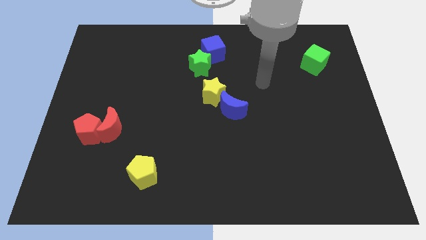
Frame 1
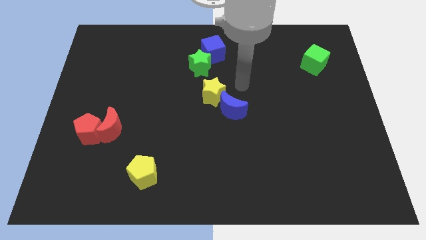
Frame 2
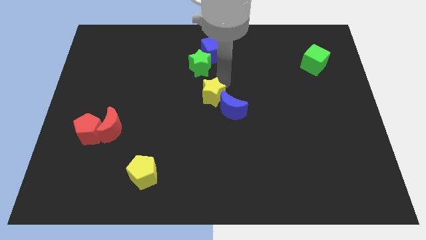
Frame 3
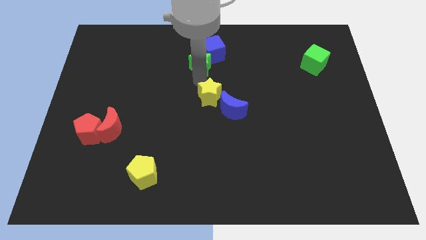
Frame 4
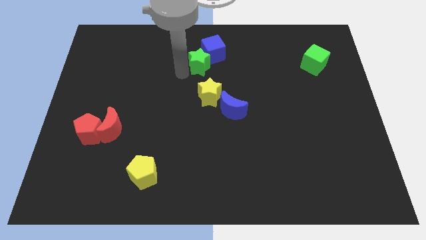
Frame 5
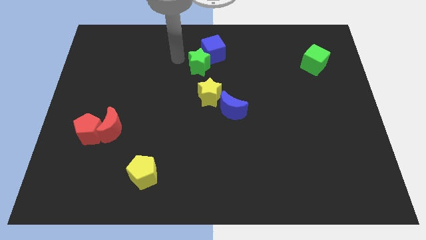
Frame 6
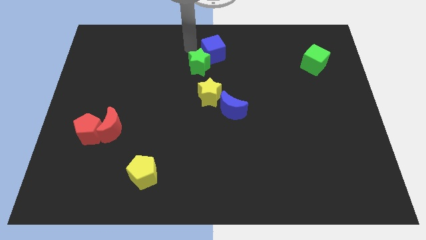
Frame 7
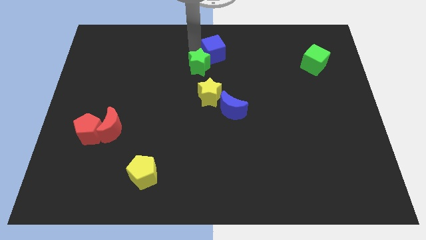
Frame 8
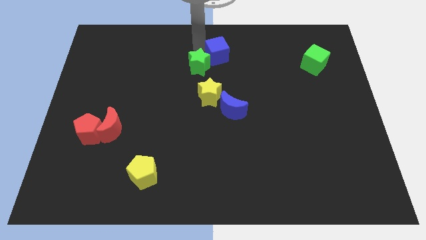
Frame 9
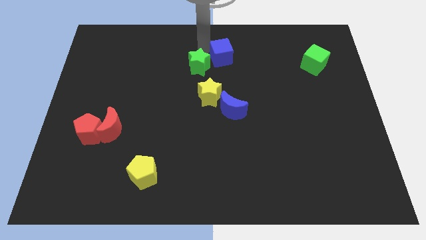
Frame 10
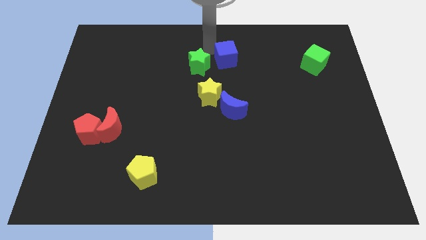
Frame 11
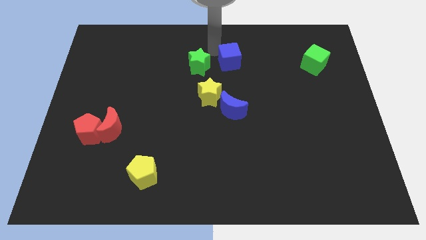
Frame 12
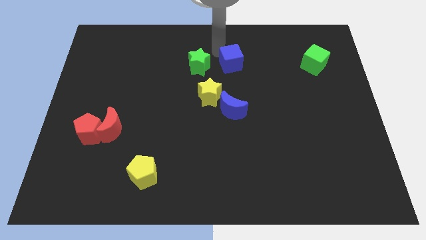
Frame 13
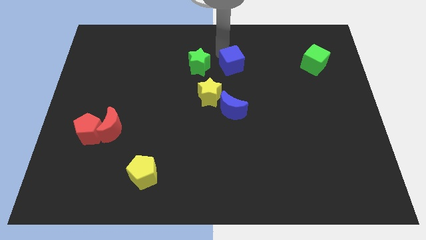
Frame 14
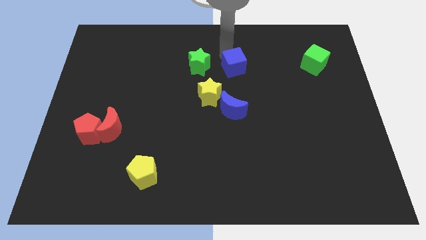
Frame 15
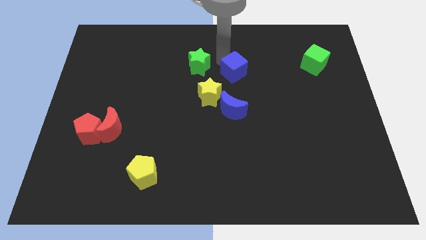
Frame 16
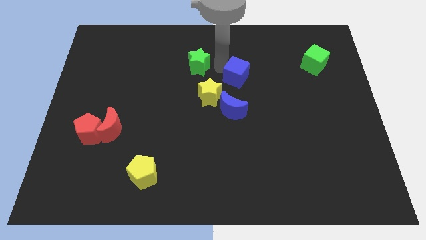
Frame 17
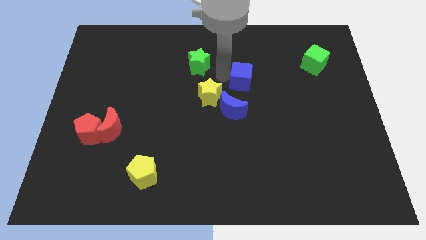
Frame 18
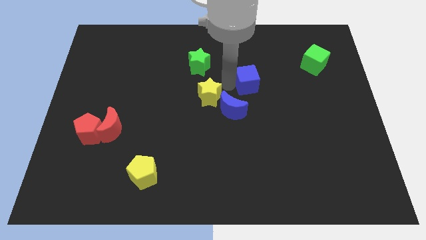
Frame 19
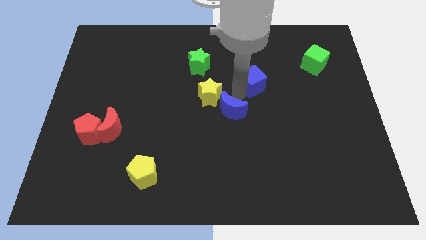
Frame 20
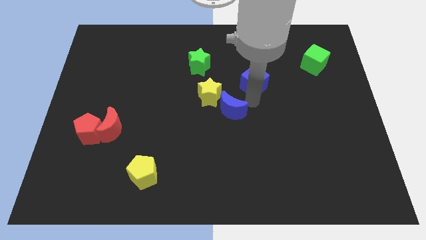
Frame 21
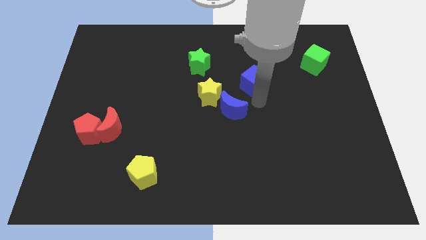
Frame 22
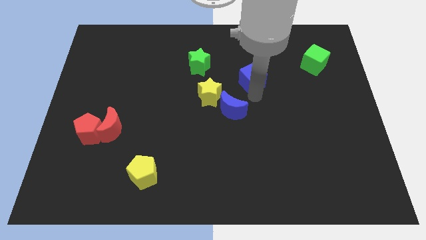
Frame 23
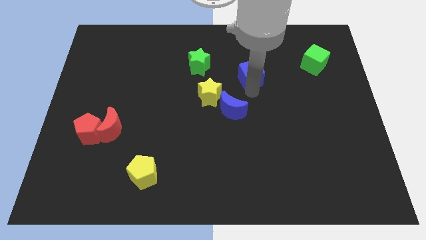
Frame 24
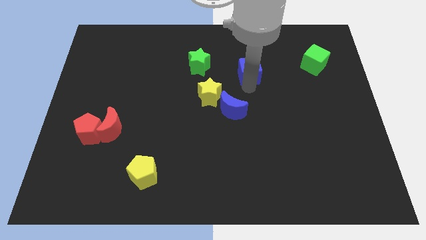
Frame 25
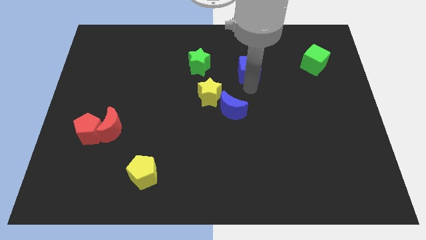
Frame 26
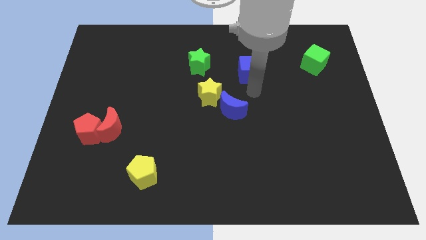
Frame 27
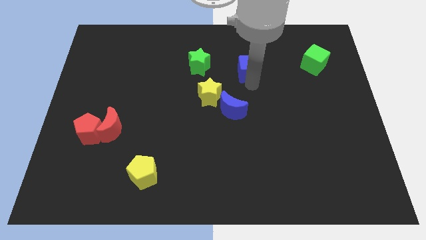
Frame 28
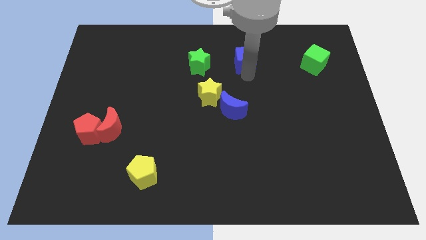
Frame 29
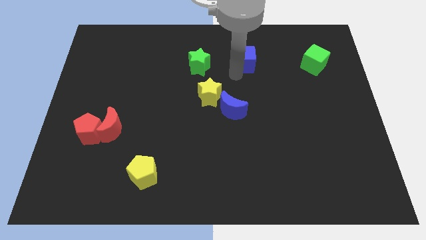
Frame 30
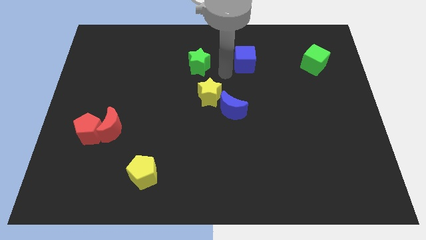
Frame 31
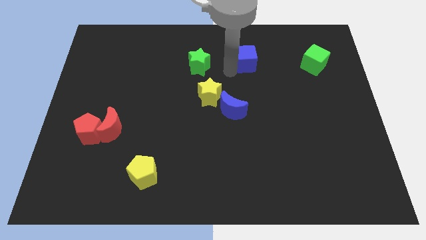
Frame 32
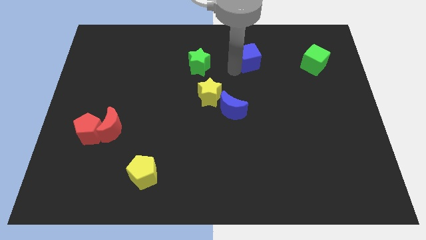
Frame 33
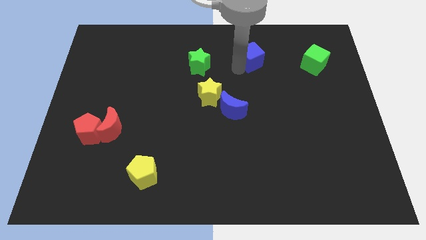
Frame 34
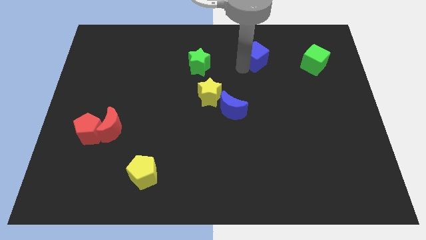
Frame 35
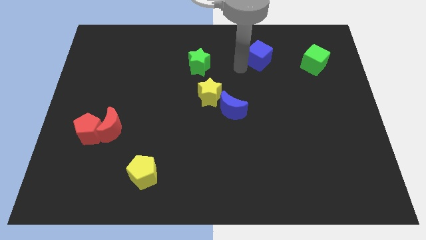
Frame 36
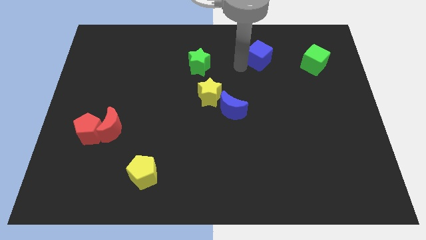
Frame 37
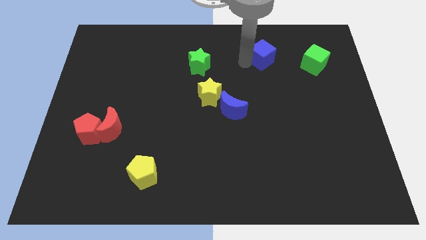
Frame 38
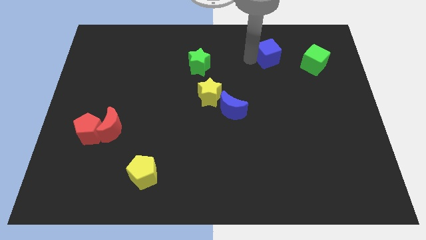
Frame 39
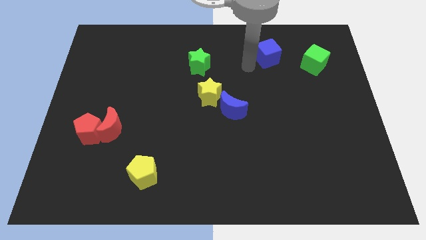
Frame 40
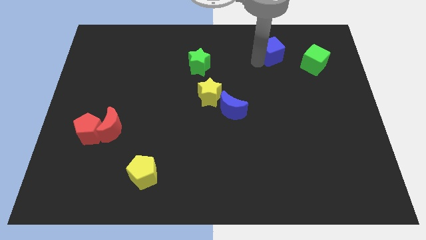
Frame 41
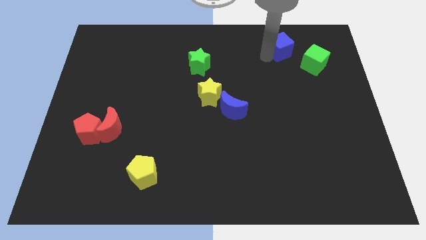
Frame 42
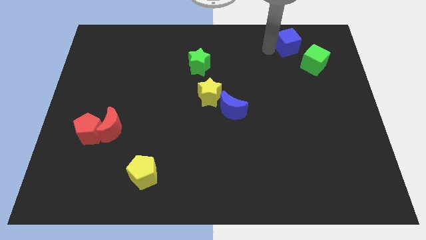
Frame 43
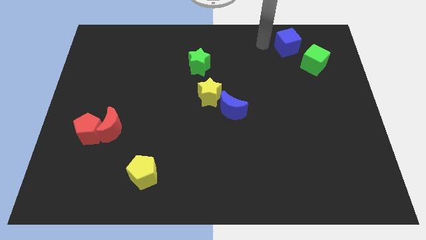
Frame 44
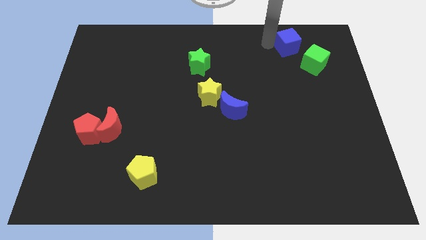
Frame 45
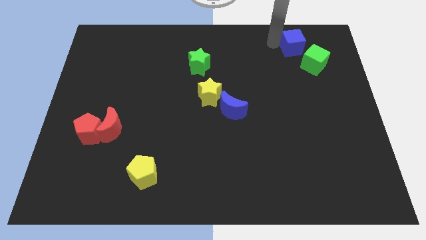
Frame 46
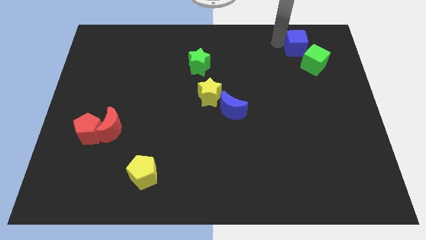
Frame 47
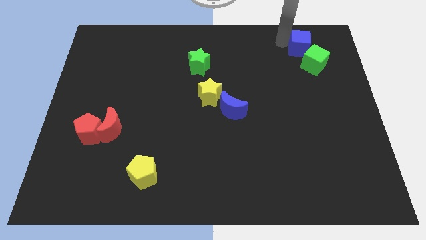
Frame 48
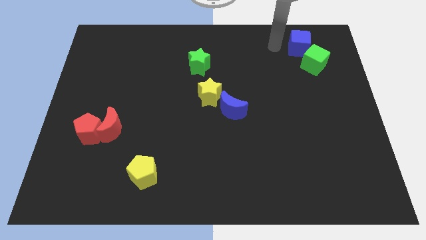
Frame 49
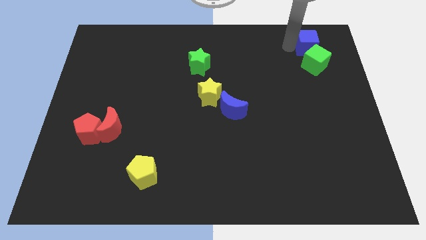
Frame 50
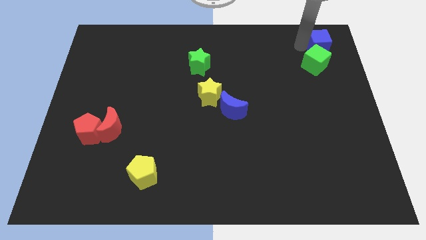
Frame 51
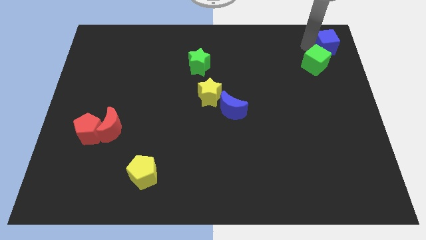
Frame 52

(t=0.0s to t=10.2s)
put the blue cube to the upper right corner

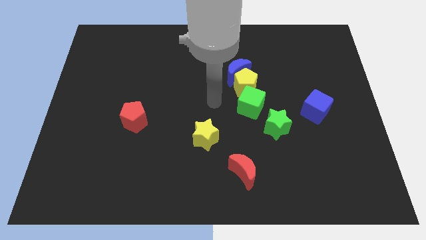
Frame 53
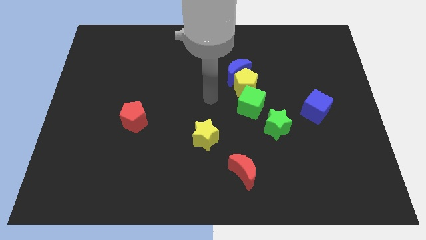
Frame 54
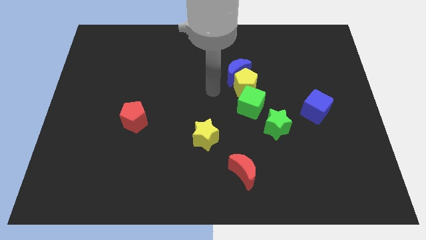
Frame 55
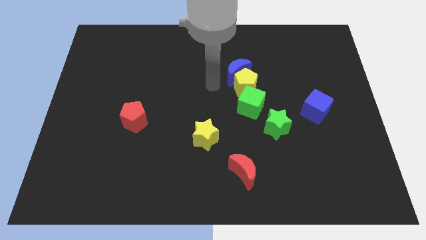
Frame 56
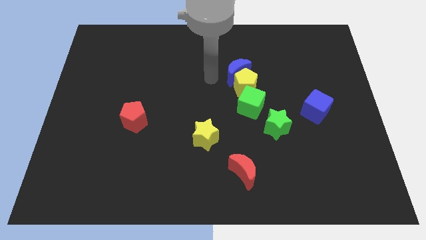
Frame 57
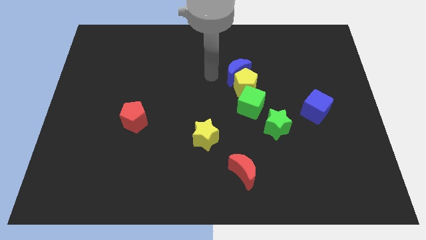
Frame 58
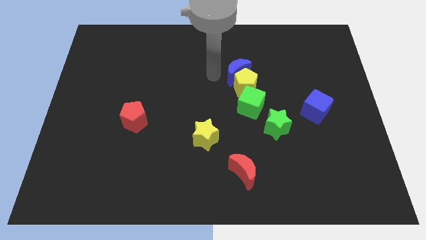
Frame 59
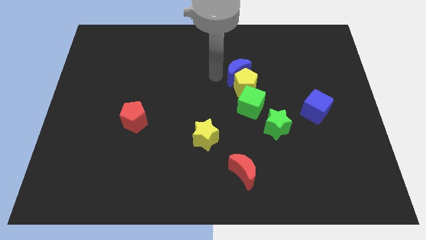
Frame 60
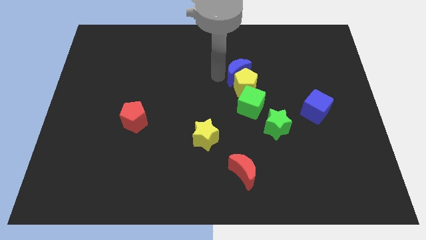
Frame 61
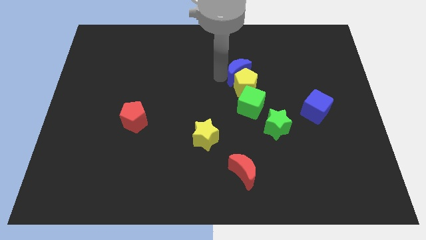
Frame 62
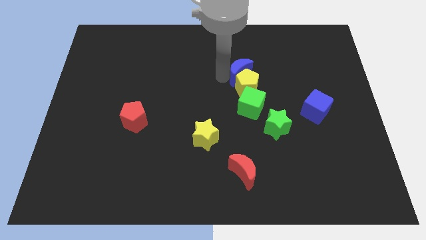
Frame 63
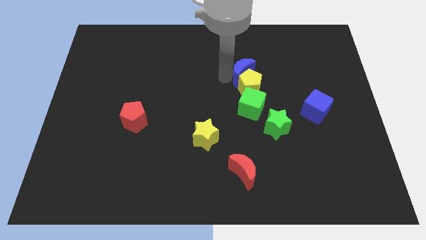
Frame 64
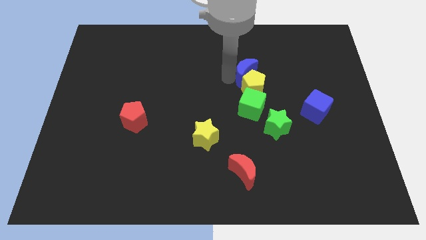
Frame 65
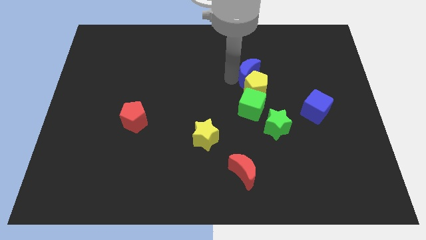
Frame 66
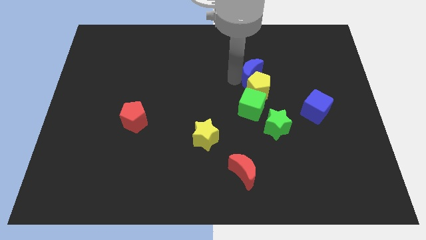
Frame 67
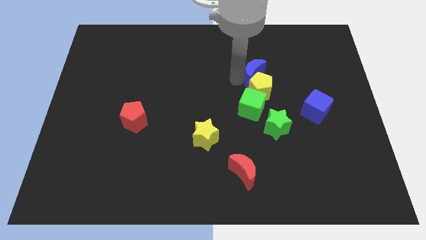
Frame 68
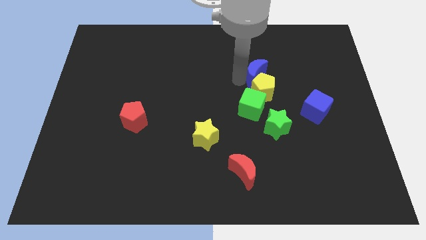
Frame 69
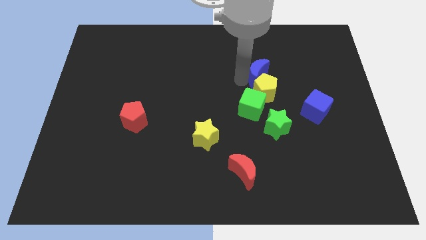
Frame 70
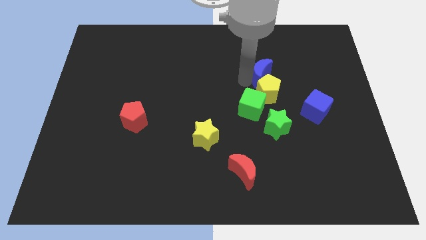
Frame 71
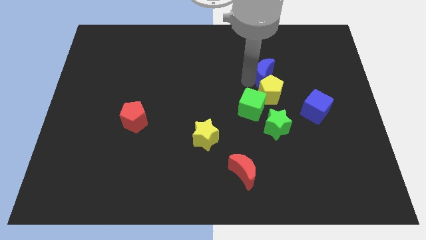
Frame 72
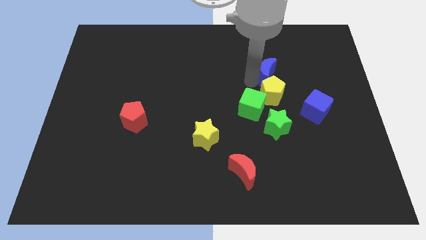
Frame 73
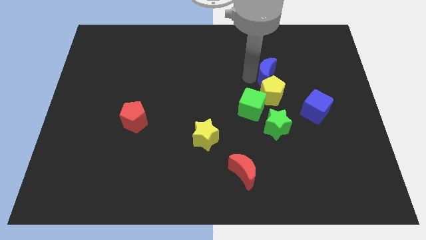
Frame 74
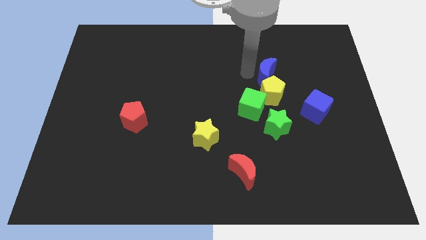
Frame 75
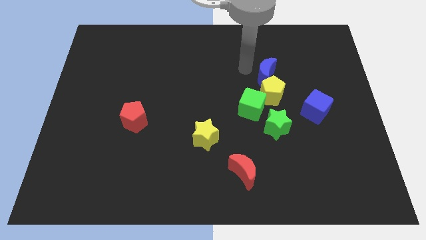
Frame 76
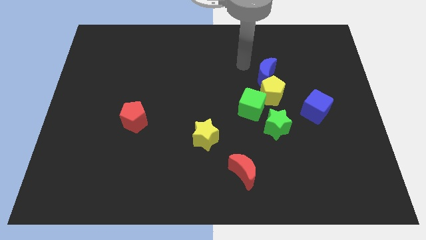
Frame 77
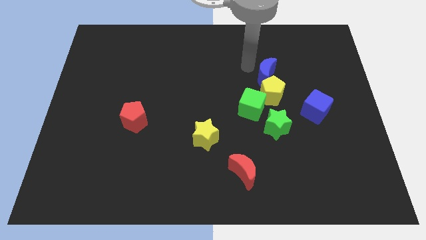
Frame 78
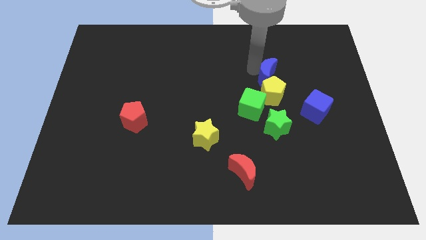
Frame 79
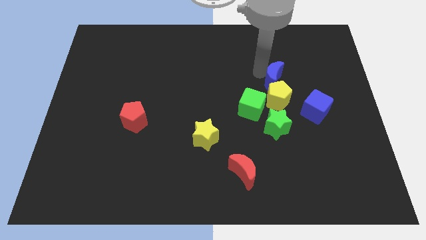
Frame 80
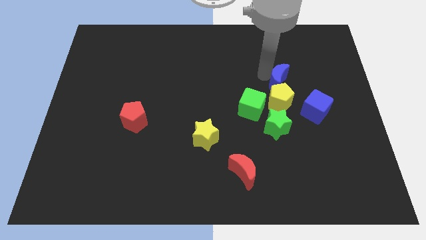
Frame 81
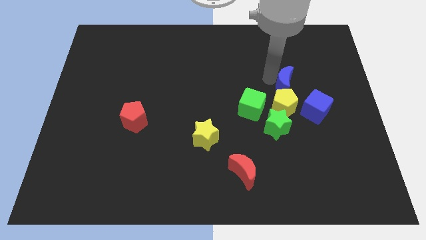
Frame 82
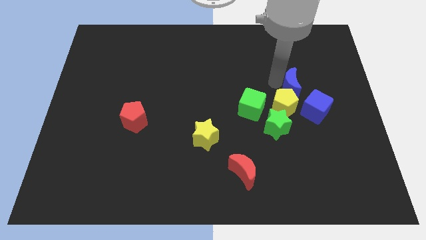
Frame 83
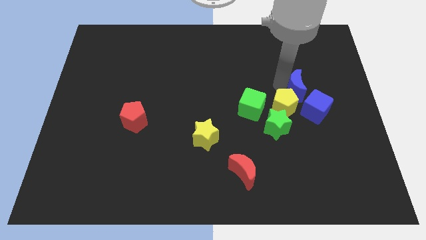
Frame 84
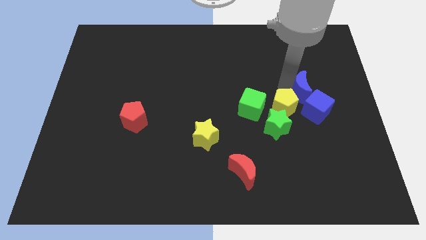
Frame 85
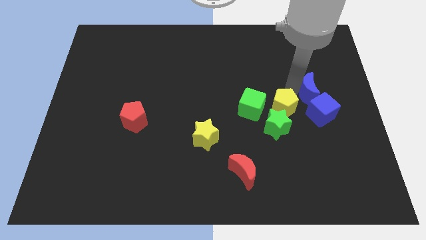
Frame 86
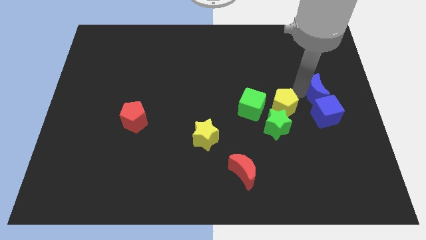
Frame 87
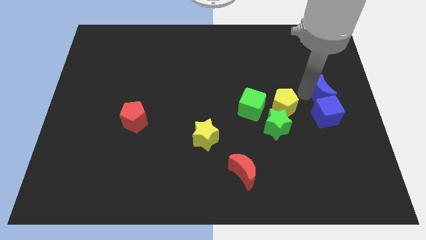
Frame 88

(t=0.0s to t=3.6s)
move the blue moon to the right side of the board
